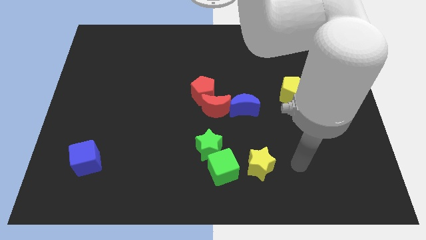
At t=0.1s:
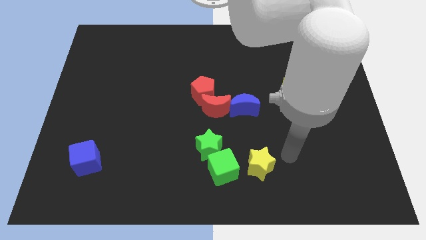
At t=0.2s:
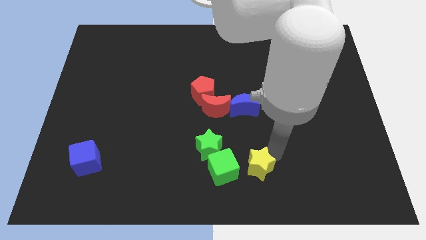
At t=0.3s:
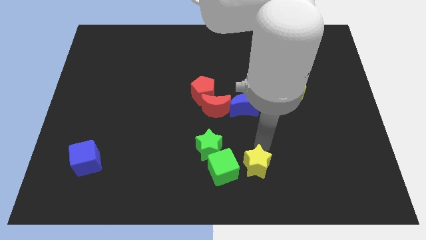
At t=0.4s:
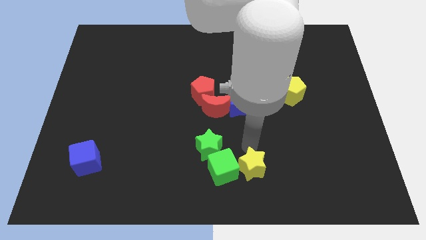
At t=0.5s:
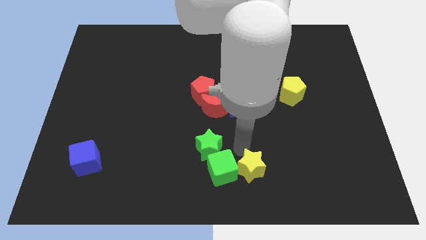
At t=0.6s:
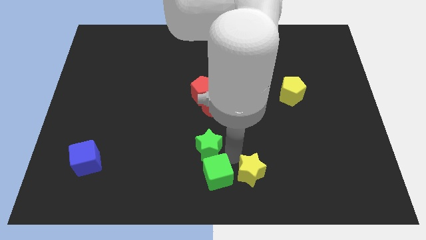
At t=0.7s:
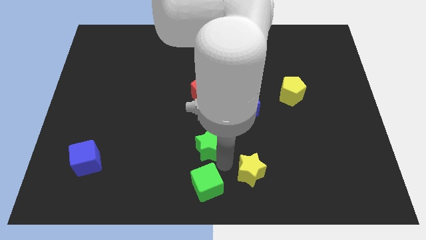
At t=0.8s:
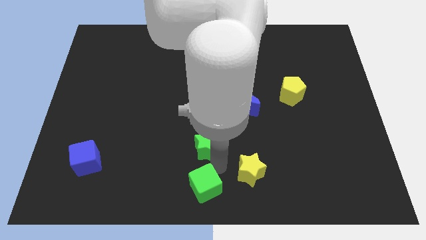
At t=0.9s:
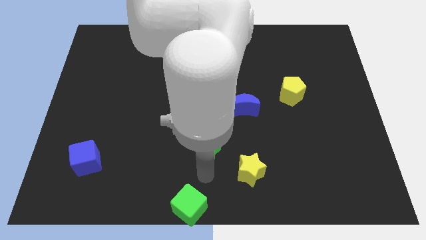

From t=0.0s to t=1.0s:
pull the green star apart from the green cube

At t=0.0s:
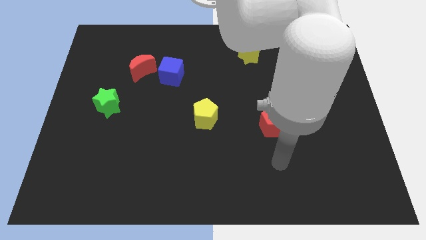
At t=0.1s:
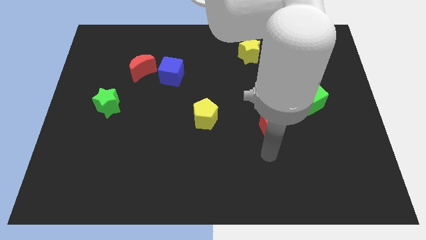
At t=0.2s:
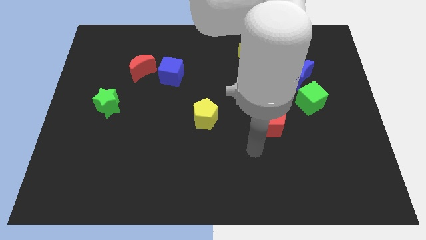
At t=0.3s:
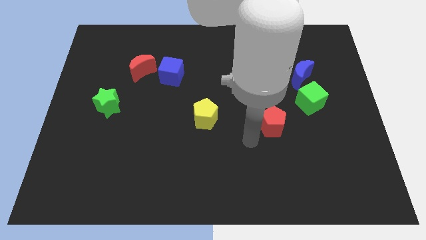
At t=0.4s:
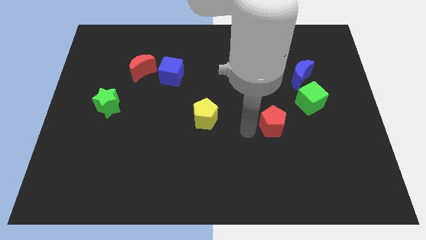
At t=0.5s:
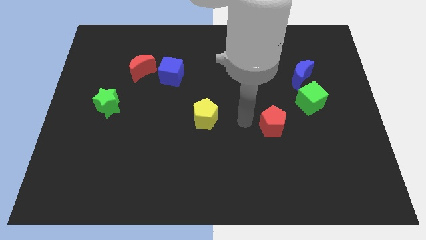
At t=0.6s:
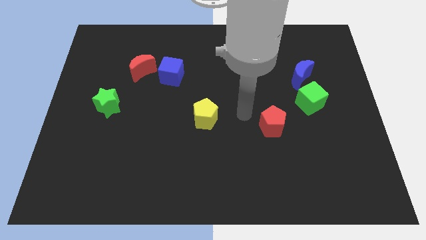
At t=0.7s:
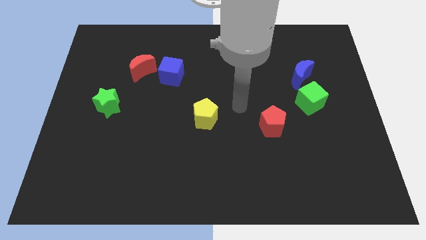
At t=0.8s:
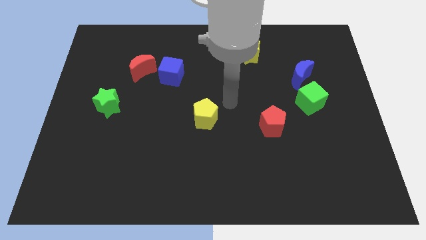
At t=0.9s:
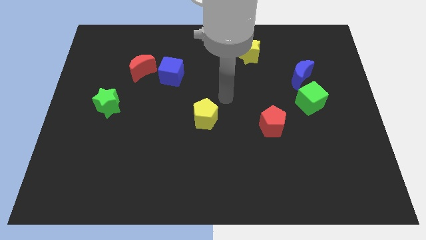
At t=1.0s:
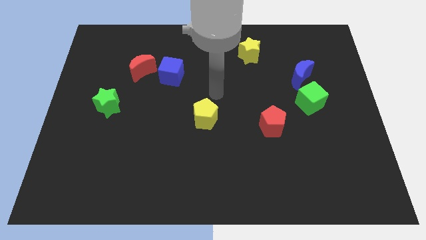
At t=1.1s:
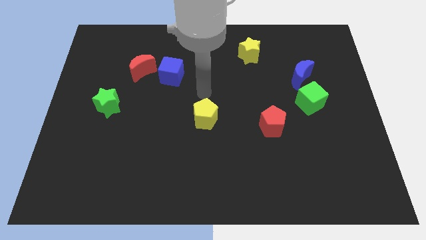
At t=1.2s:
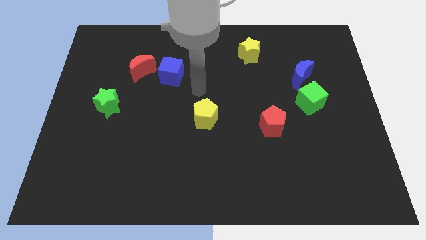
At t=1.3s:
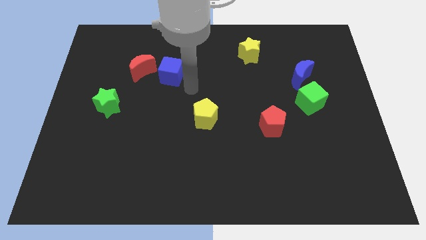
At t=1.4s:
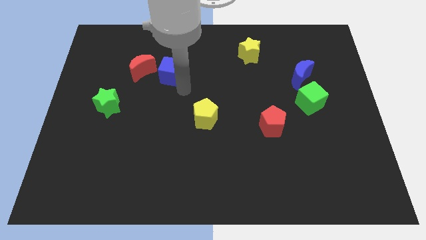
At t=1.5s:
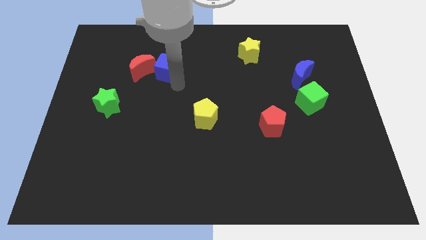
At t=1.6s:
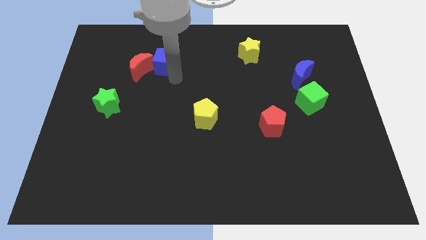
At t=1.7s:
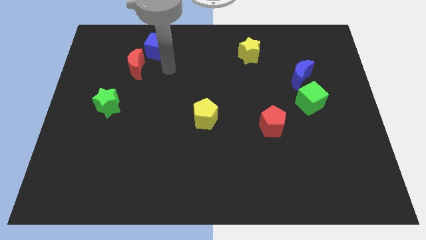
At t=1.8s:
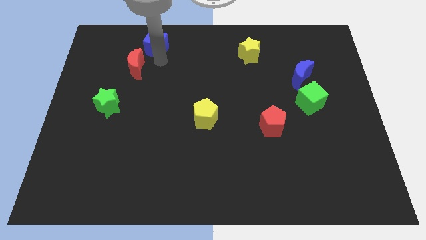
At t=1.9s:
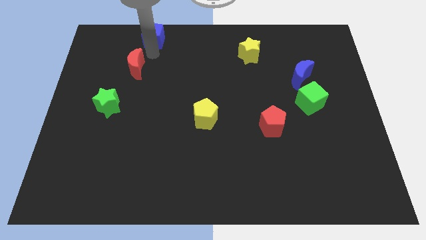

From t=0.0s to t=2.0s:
pull the red moon apart from the blue cube

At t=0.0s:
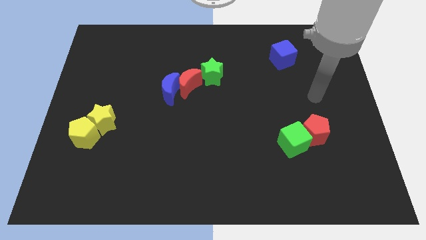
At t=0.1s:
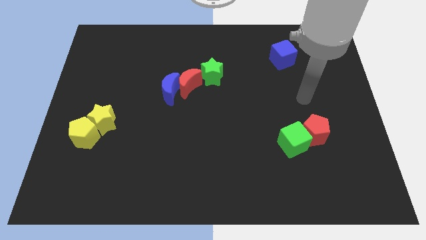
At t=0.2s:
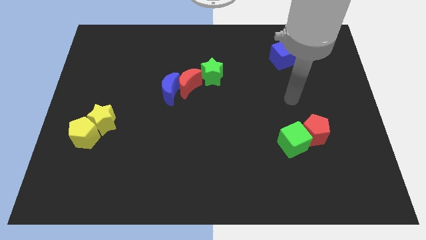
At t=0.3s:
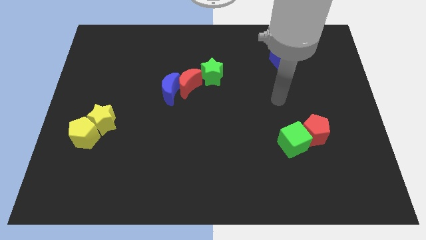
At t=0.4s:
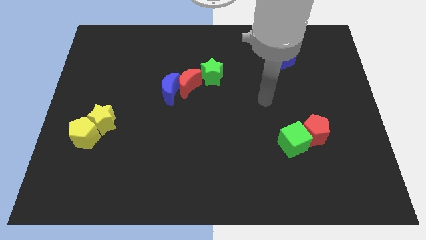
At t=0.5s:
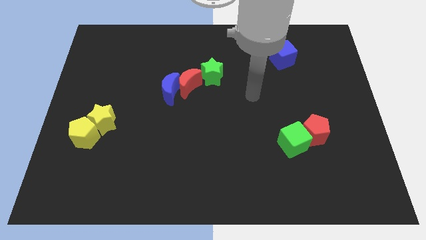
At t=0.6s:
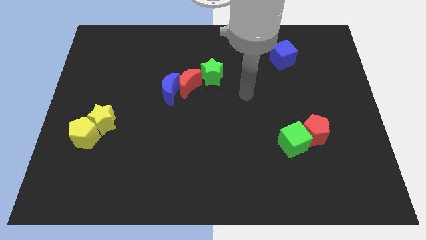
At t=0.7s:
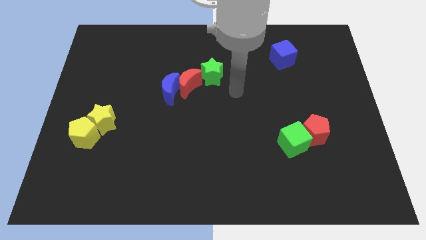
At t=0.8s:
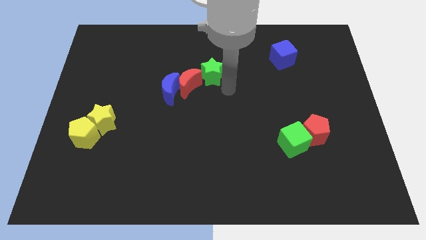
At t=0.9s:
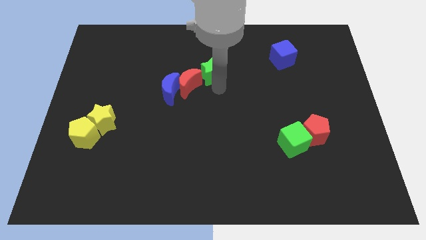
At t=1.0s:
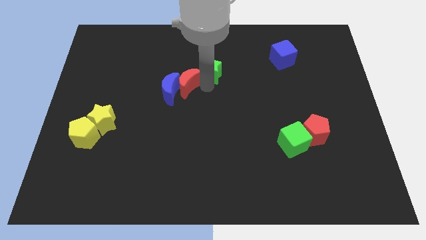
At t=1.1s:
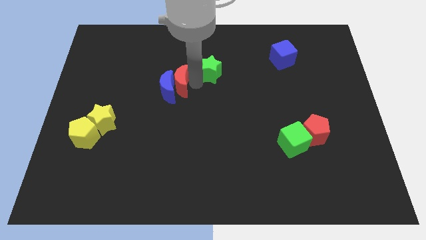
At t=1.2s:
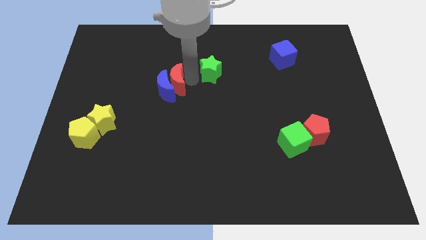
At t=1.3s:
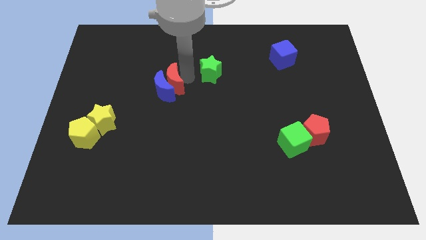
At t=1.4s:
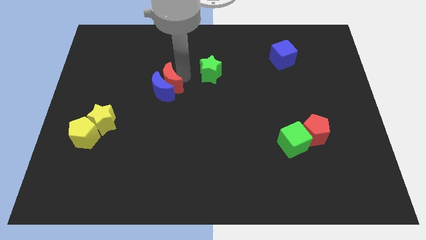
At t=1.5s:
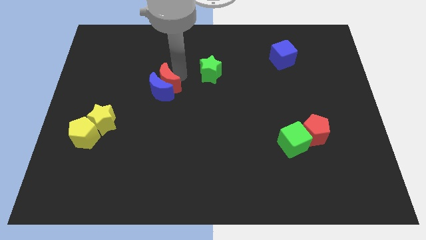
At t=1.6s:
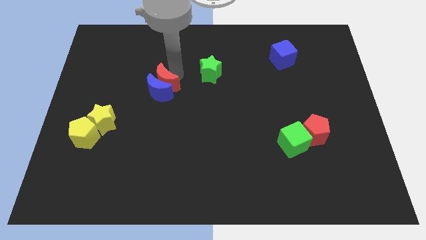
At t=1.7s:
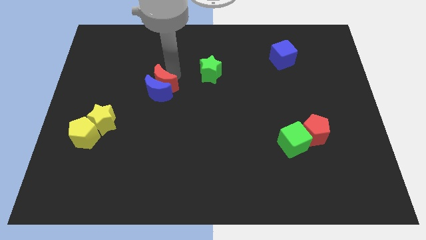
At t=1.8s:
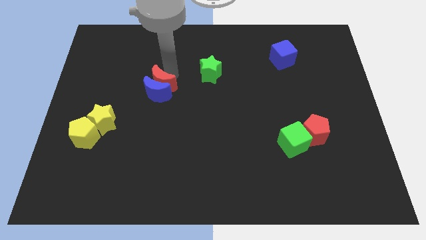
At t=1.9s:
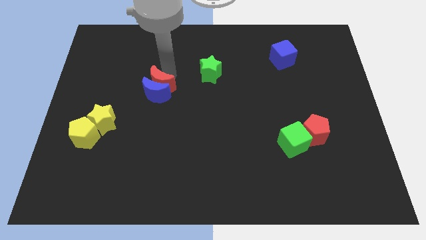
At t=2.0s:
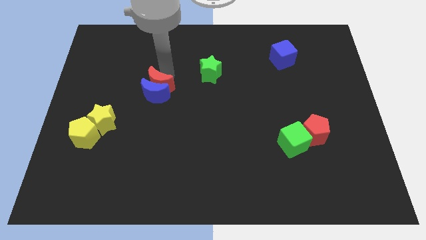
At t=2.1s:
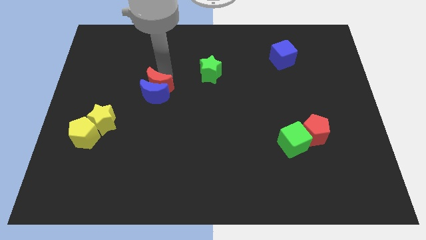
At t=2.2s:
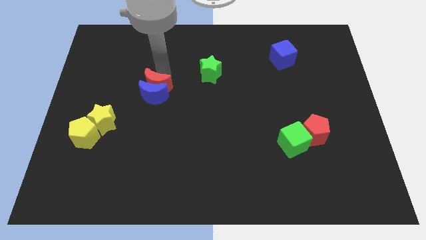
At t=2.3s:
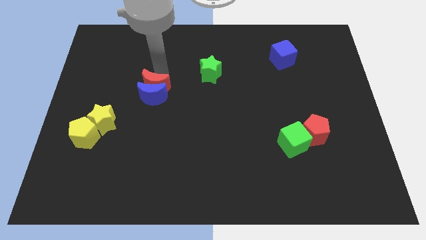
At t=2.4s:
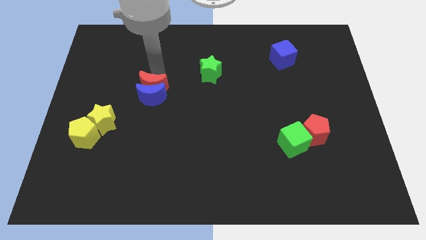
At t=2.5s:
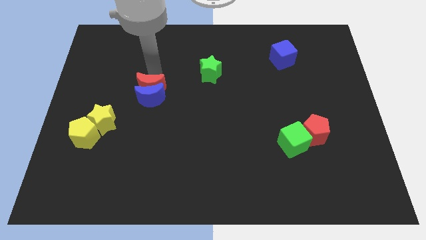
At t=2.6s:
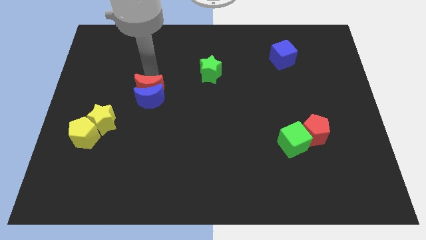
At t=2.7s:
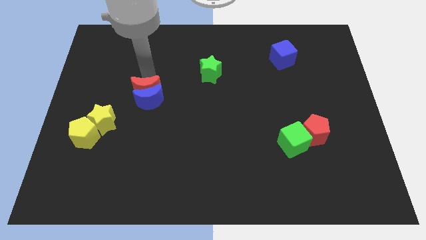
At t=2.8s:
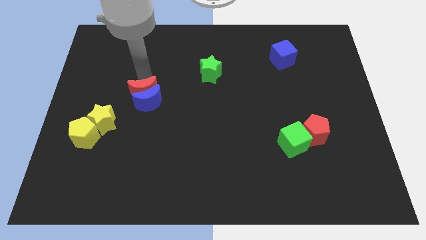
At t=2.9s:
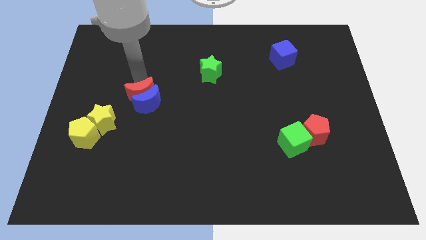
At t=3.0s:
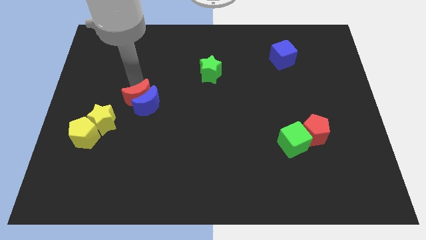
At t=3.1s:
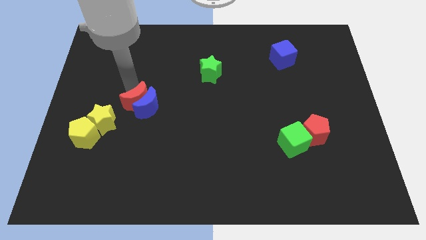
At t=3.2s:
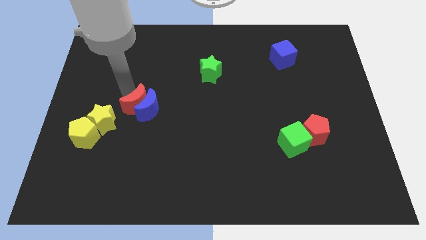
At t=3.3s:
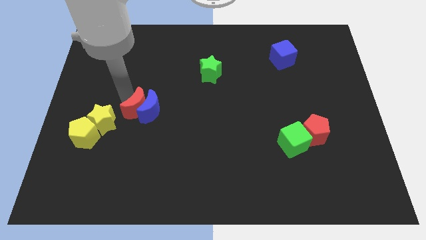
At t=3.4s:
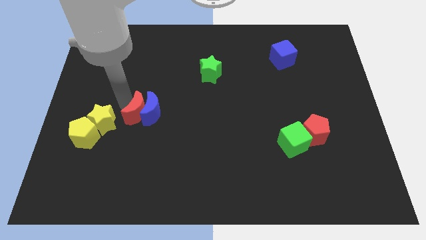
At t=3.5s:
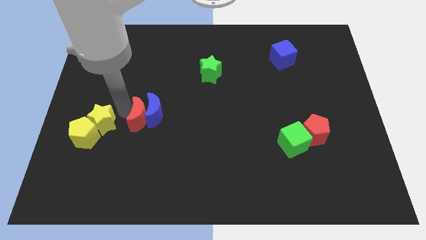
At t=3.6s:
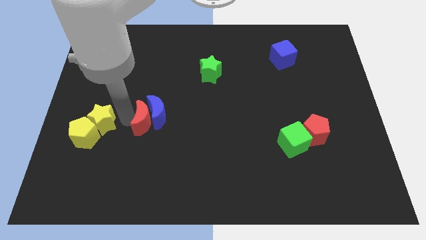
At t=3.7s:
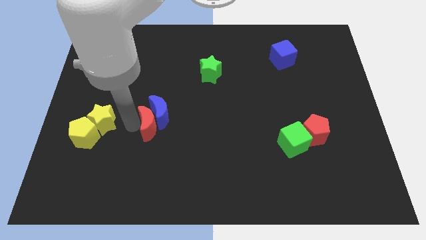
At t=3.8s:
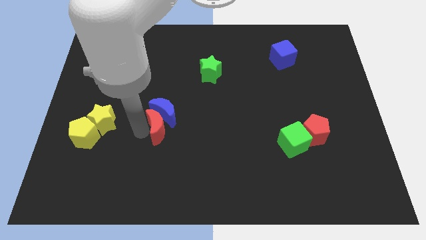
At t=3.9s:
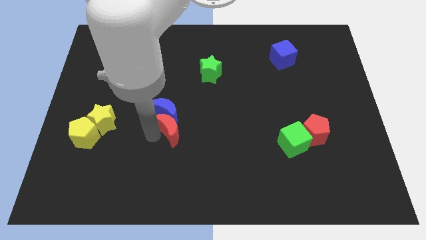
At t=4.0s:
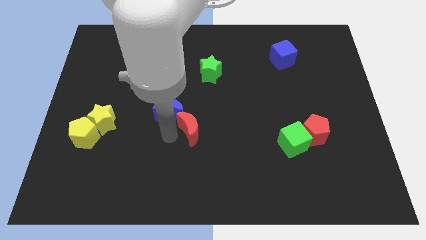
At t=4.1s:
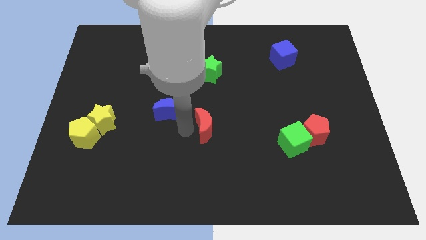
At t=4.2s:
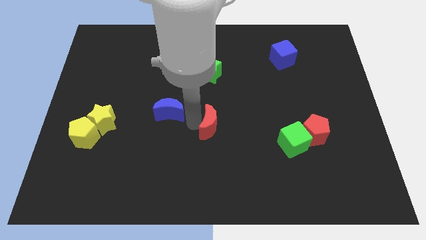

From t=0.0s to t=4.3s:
move the blue moon away from the red moon

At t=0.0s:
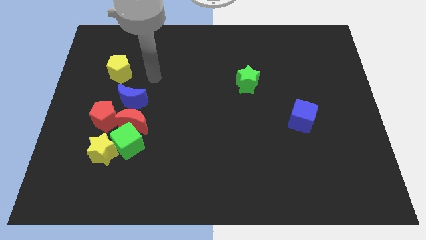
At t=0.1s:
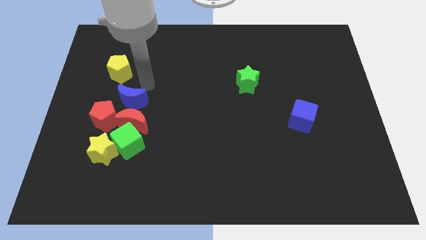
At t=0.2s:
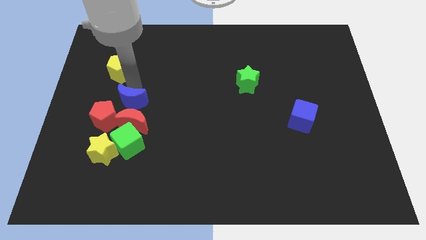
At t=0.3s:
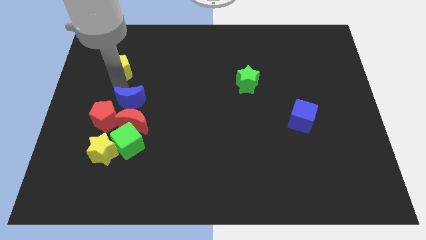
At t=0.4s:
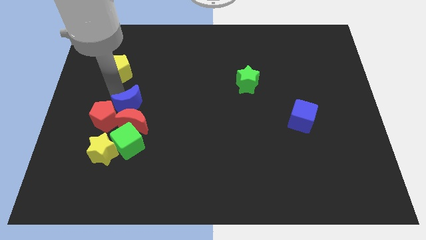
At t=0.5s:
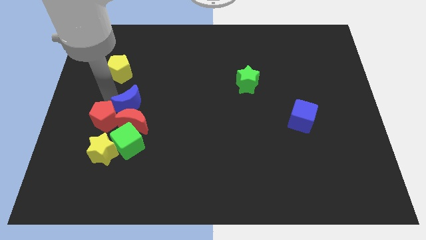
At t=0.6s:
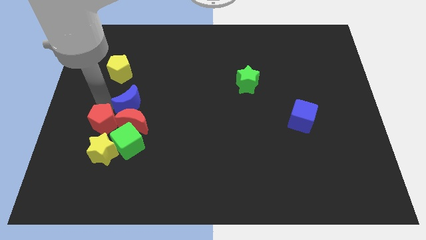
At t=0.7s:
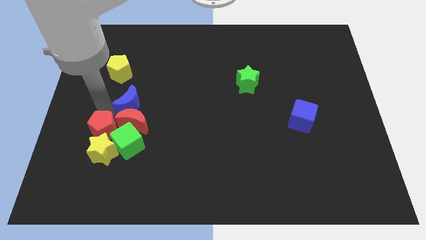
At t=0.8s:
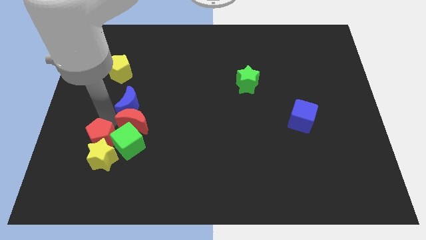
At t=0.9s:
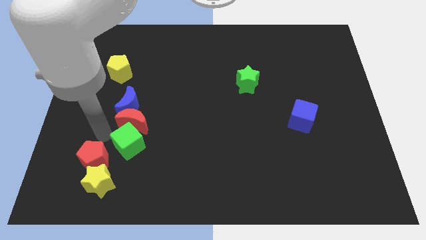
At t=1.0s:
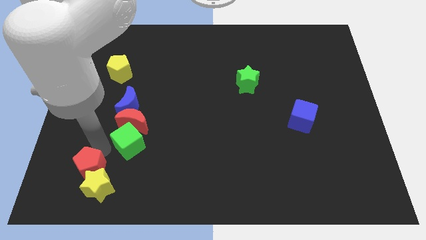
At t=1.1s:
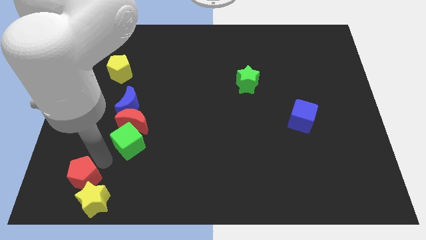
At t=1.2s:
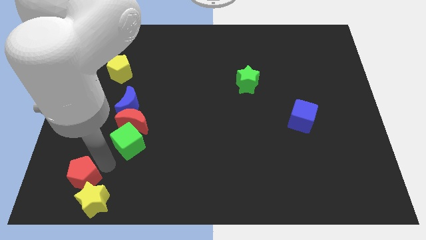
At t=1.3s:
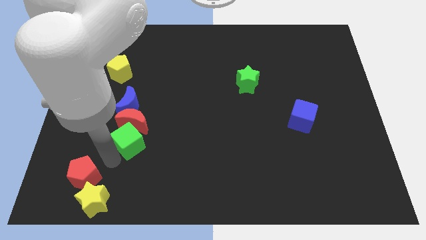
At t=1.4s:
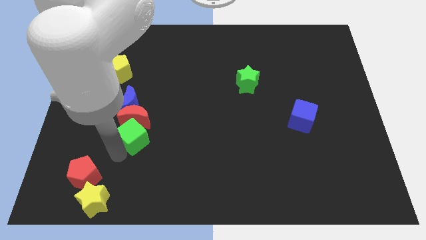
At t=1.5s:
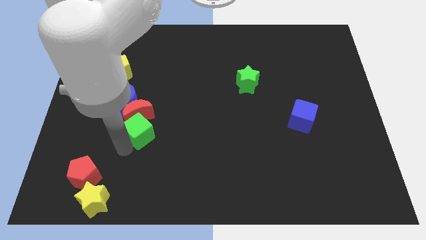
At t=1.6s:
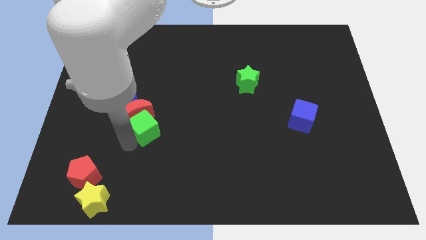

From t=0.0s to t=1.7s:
separate the green cube from the red moon, yellow star, and red pentagon

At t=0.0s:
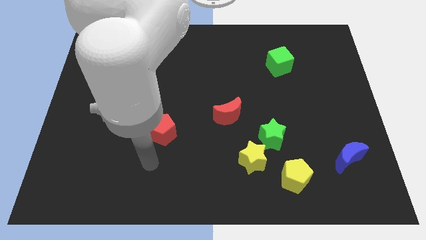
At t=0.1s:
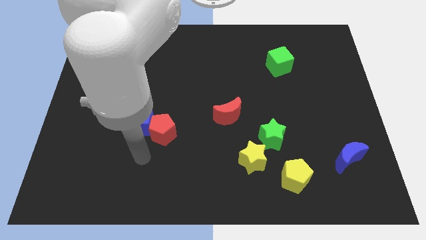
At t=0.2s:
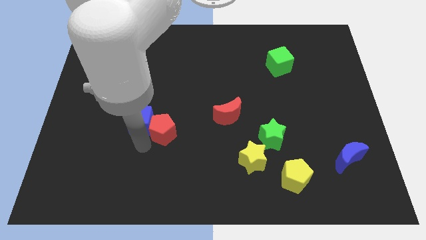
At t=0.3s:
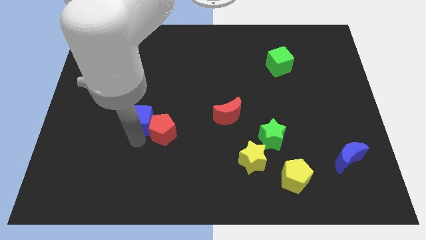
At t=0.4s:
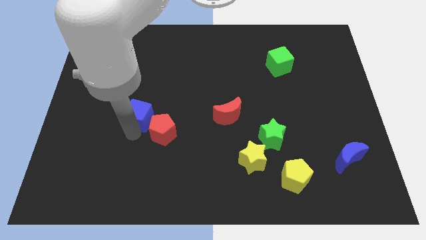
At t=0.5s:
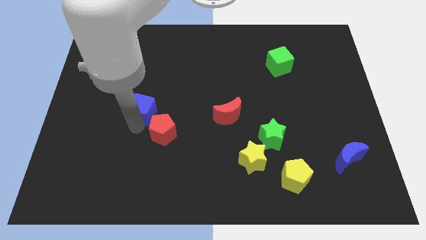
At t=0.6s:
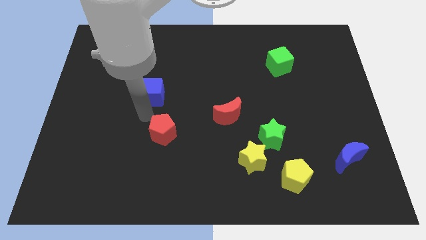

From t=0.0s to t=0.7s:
separate the red pentagon from the blue cube
